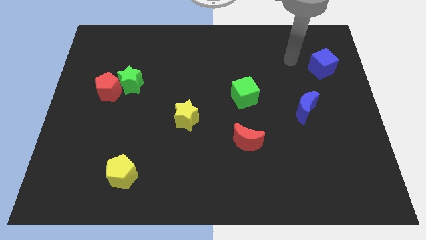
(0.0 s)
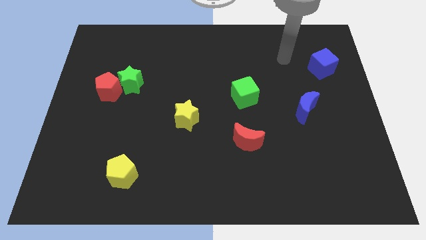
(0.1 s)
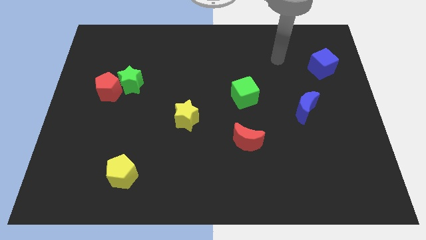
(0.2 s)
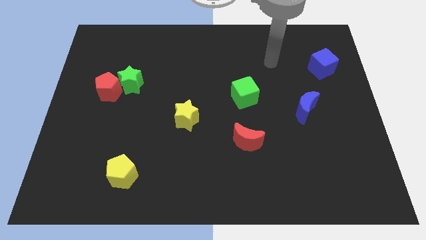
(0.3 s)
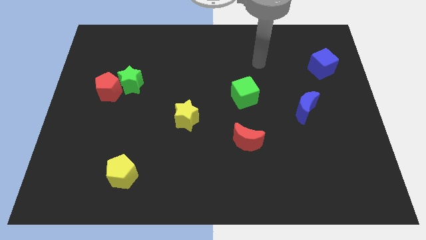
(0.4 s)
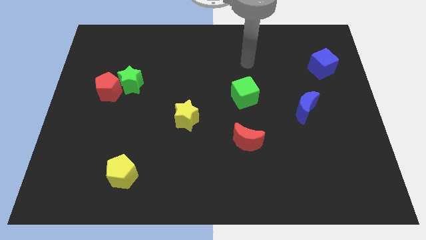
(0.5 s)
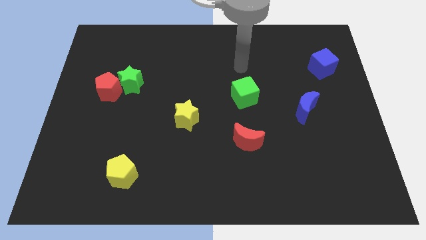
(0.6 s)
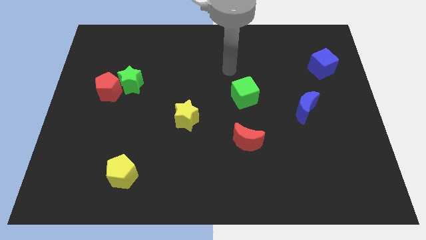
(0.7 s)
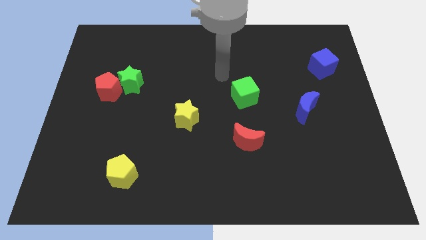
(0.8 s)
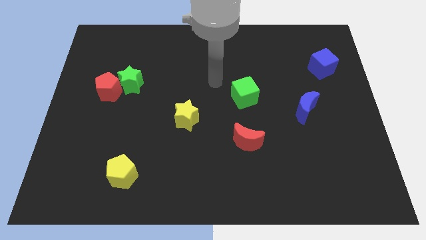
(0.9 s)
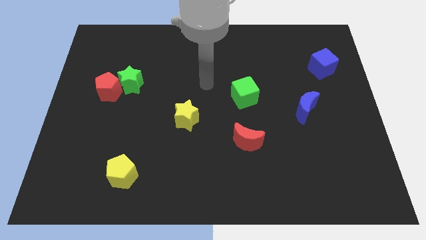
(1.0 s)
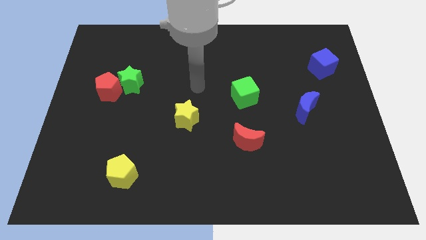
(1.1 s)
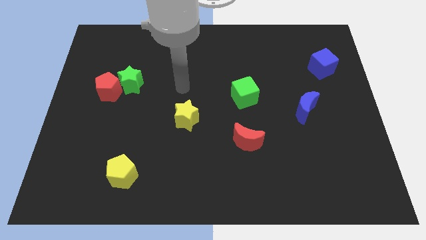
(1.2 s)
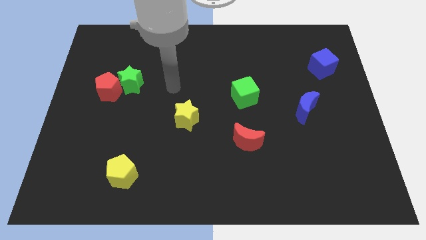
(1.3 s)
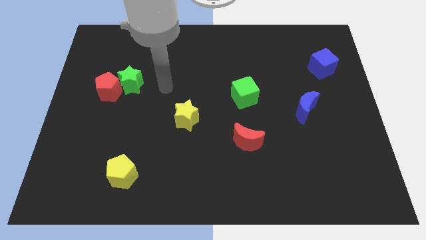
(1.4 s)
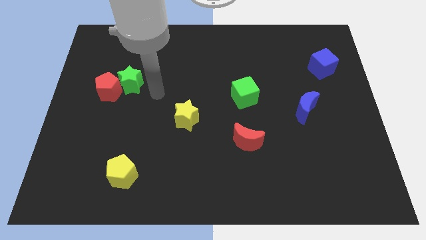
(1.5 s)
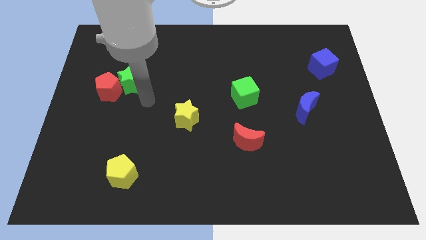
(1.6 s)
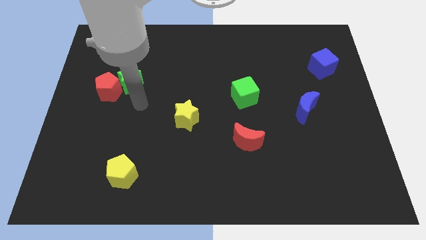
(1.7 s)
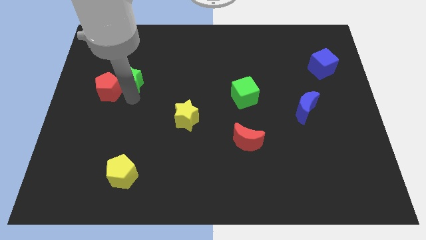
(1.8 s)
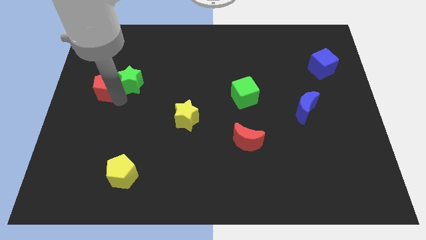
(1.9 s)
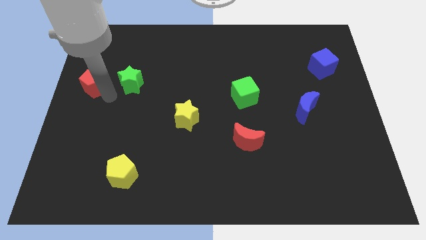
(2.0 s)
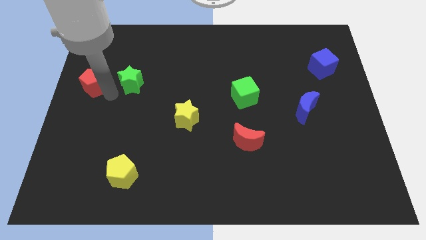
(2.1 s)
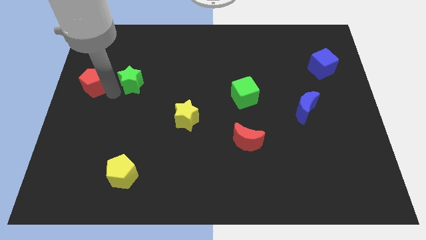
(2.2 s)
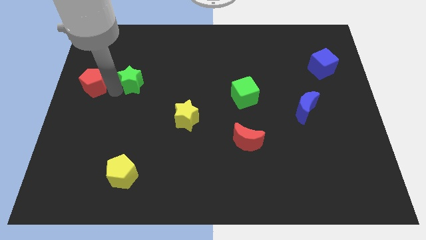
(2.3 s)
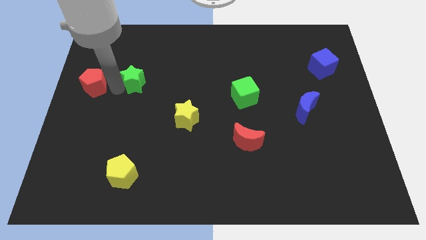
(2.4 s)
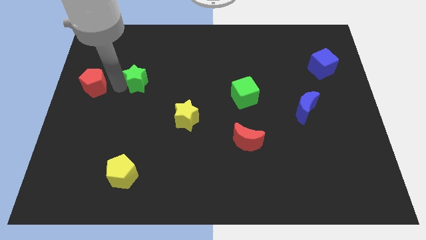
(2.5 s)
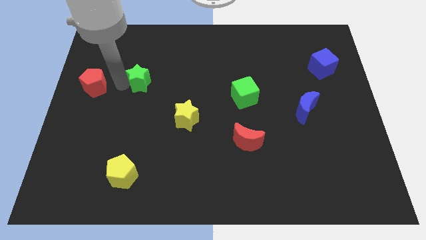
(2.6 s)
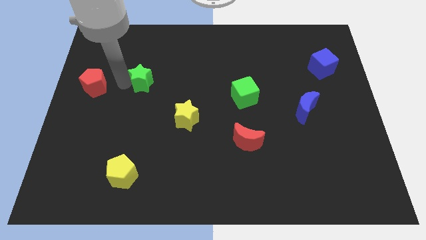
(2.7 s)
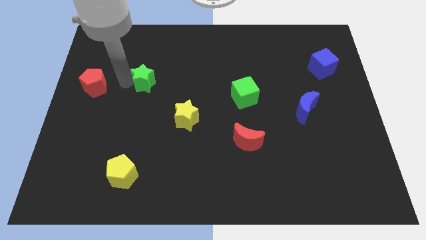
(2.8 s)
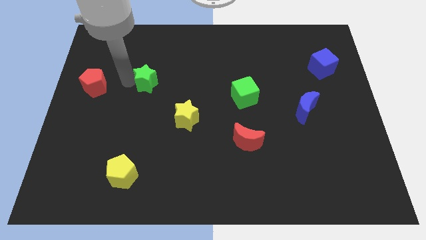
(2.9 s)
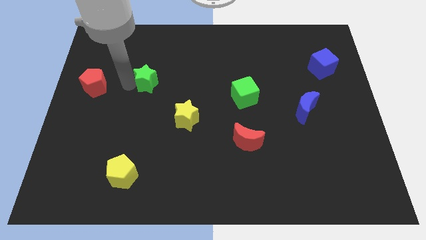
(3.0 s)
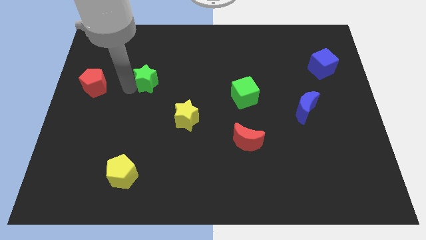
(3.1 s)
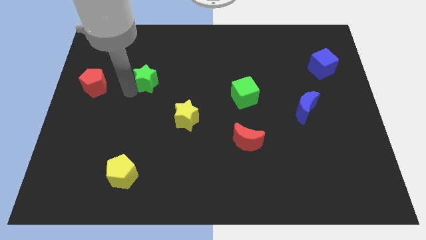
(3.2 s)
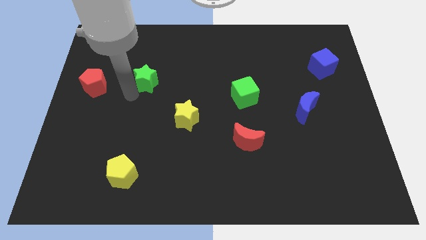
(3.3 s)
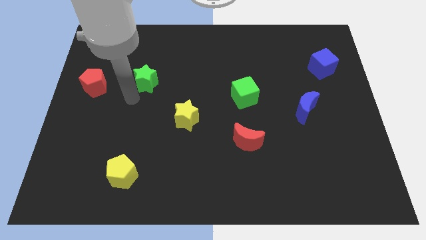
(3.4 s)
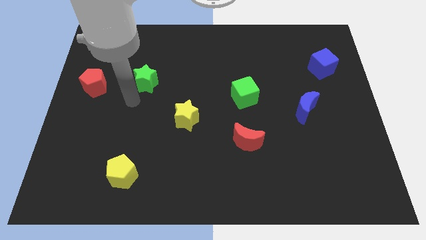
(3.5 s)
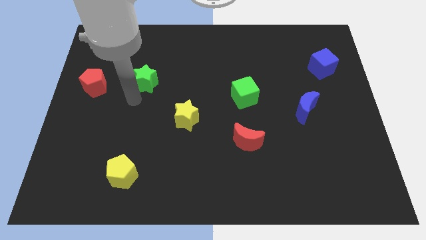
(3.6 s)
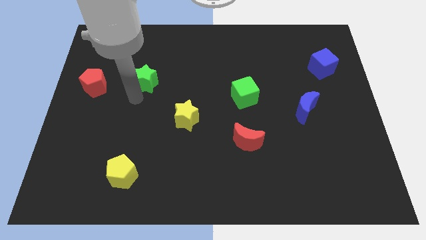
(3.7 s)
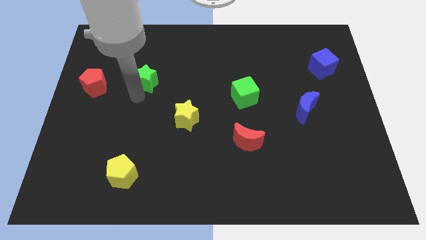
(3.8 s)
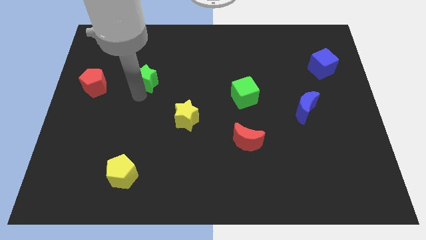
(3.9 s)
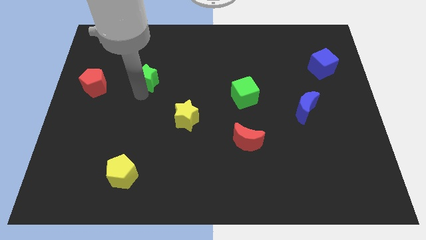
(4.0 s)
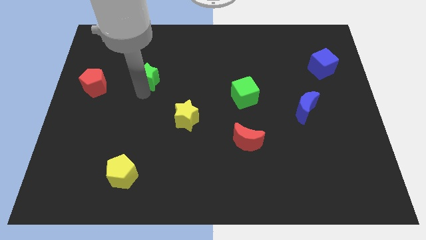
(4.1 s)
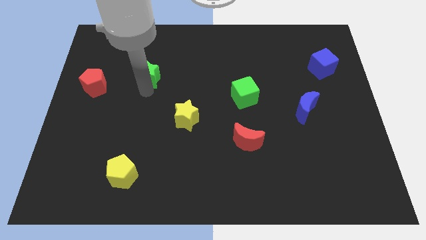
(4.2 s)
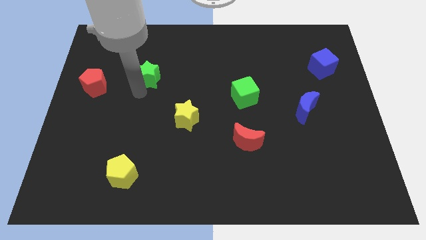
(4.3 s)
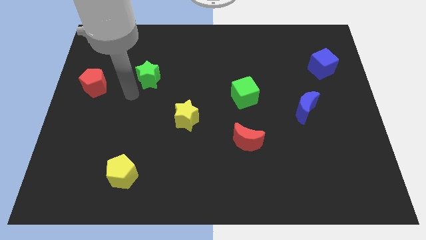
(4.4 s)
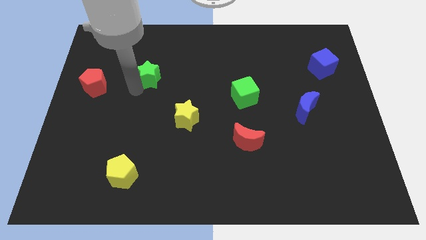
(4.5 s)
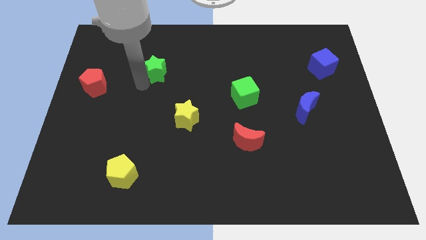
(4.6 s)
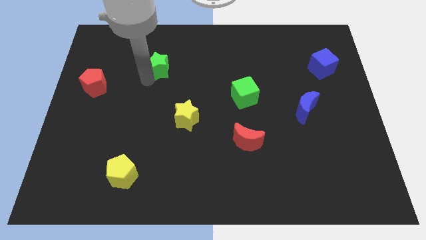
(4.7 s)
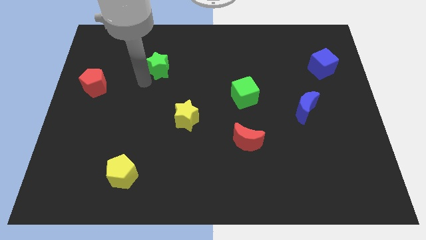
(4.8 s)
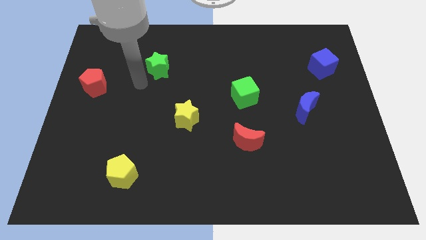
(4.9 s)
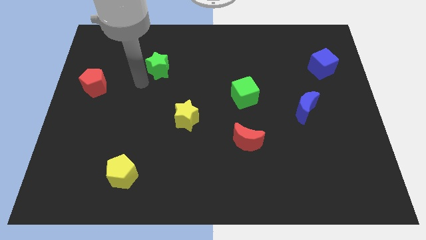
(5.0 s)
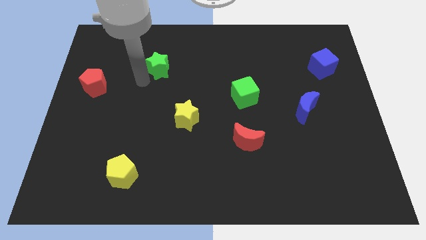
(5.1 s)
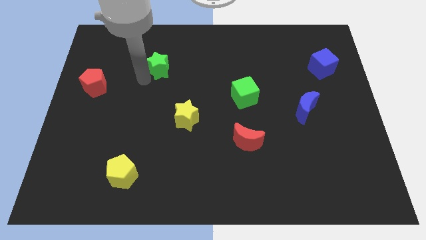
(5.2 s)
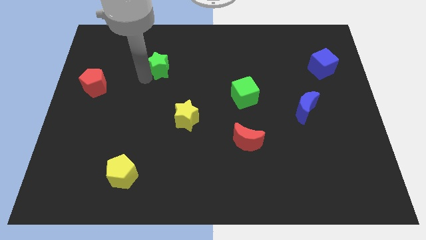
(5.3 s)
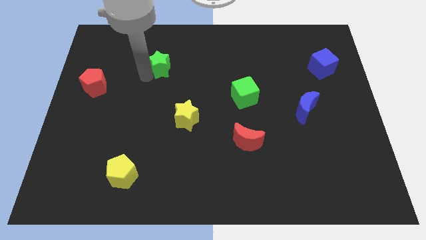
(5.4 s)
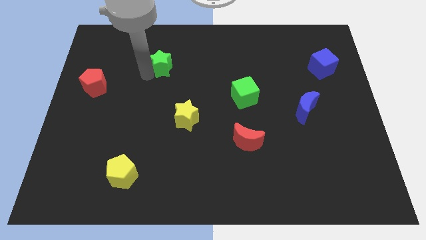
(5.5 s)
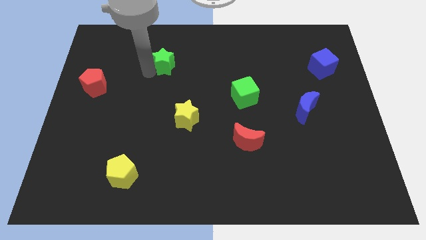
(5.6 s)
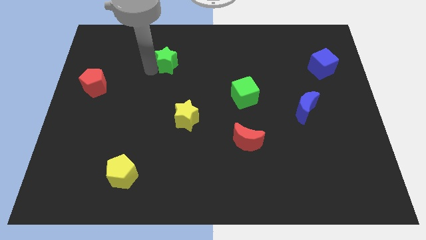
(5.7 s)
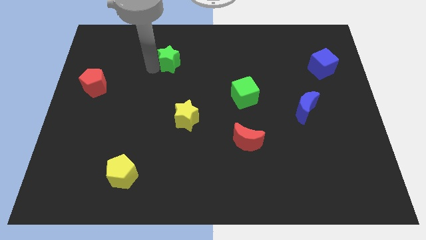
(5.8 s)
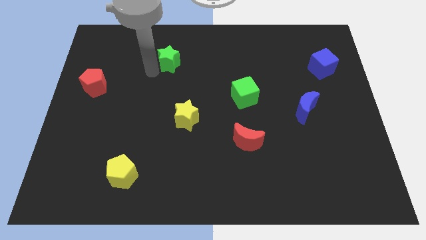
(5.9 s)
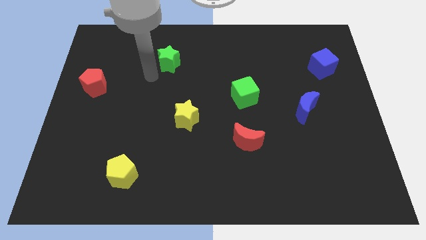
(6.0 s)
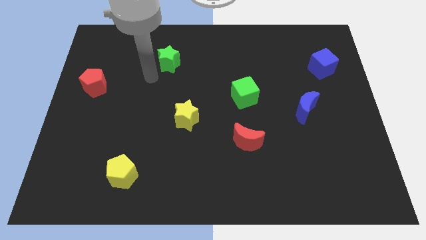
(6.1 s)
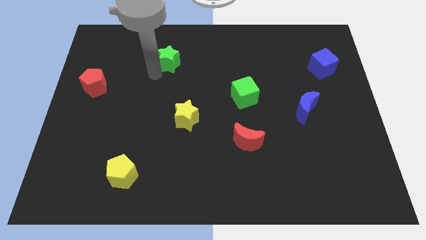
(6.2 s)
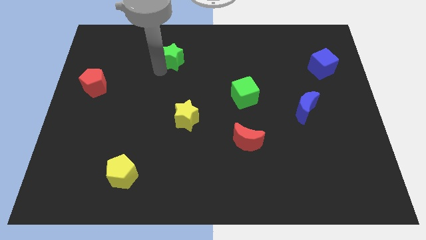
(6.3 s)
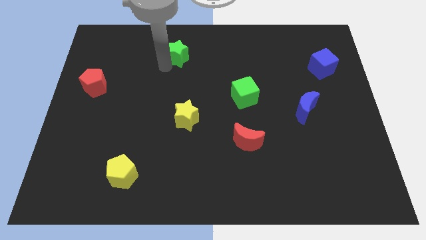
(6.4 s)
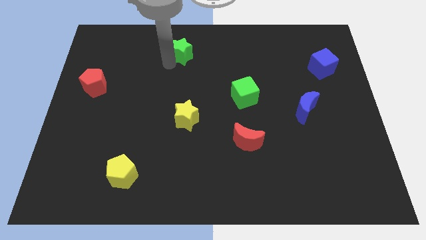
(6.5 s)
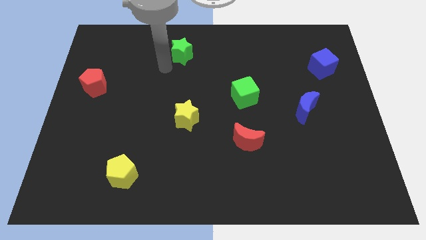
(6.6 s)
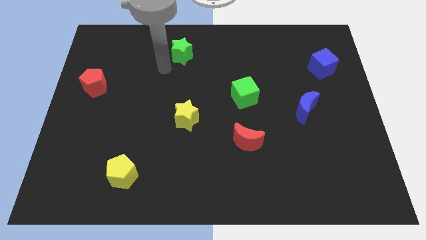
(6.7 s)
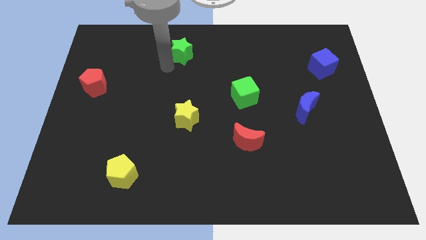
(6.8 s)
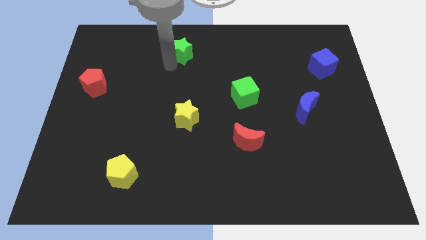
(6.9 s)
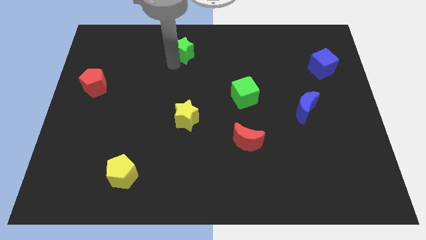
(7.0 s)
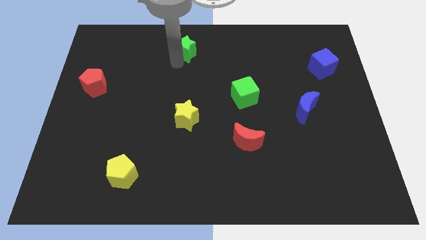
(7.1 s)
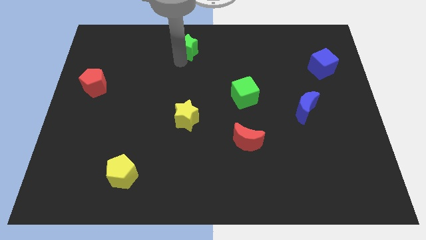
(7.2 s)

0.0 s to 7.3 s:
put the green star to the towards your base
